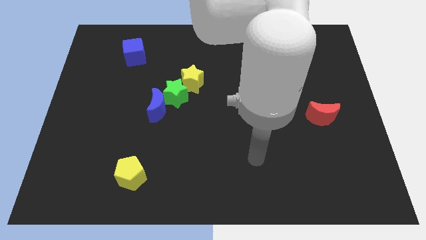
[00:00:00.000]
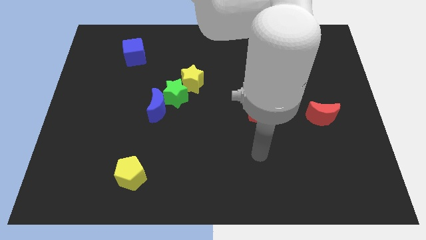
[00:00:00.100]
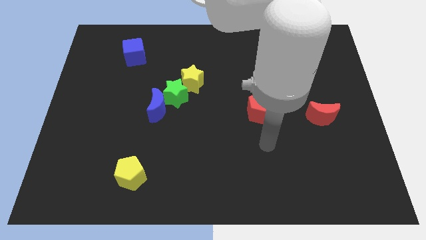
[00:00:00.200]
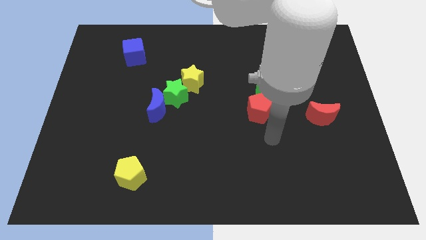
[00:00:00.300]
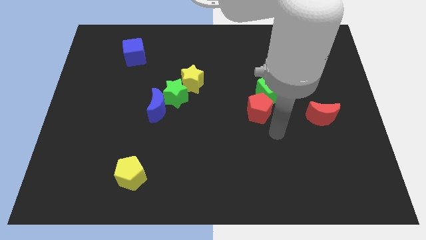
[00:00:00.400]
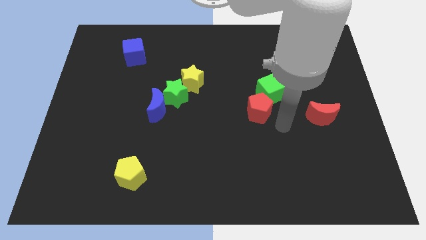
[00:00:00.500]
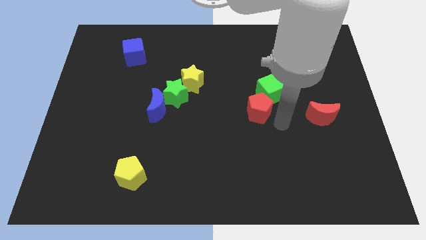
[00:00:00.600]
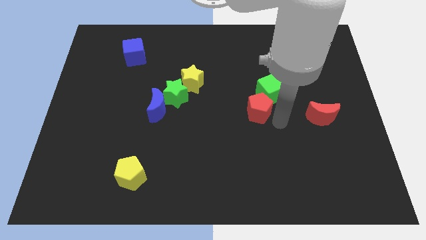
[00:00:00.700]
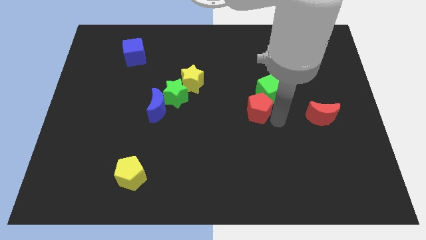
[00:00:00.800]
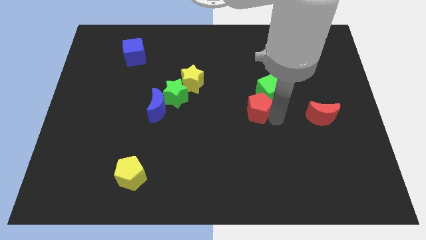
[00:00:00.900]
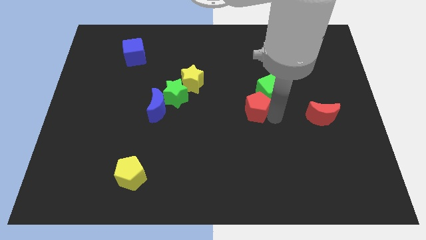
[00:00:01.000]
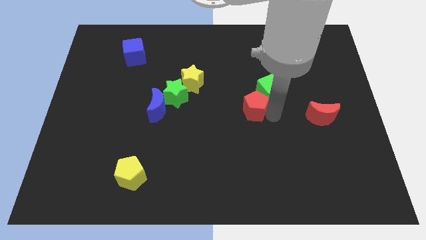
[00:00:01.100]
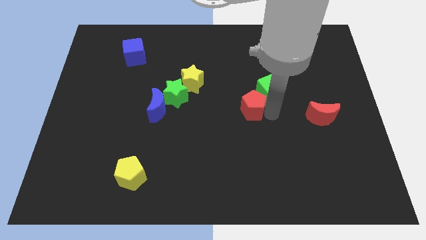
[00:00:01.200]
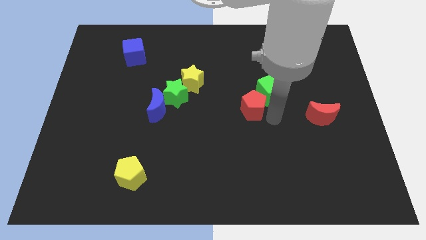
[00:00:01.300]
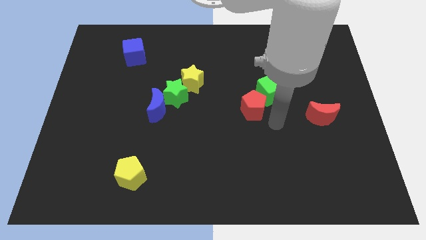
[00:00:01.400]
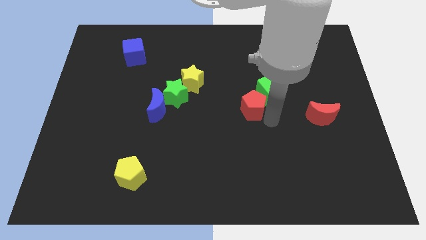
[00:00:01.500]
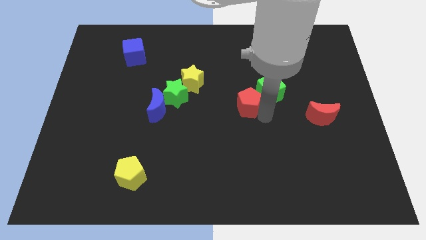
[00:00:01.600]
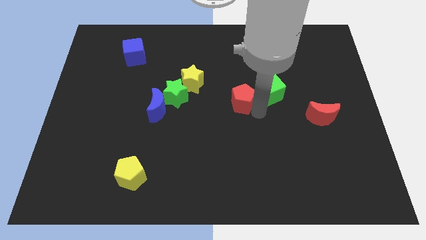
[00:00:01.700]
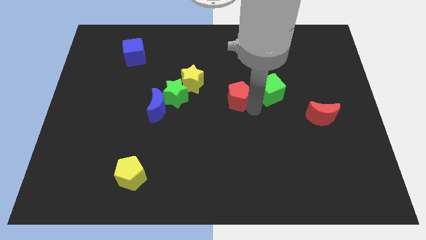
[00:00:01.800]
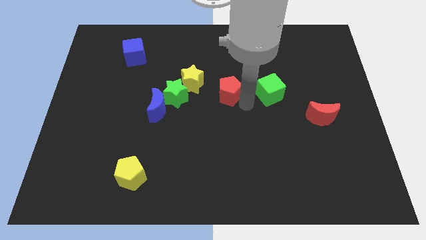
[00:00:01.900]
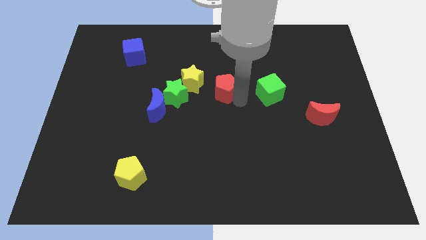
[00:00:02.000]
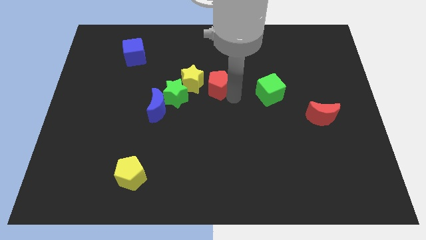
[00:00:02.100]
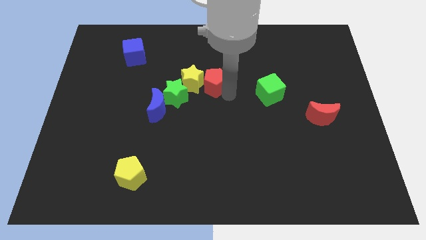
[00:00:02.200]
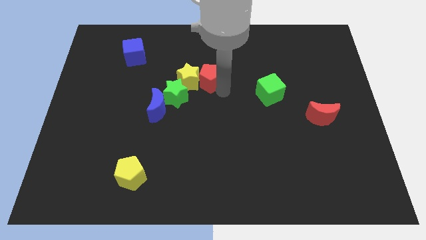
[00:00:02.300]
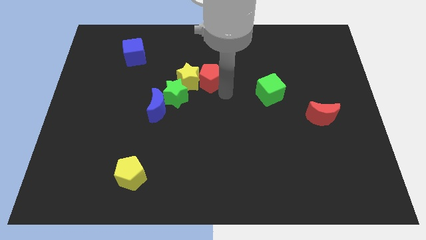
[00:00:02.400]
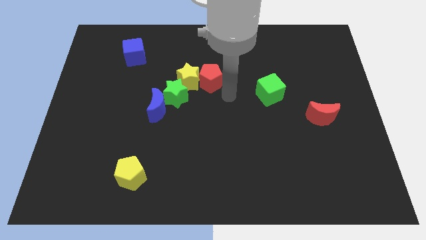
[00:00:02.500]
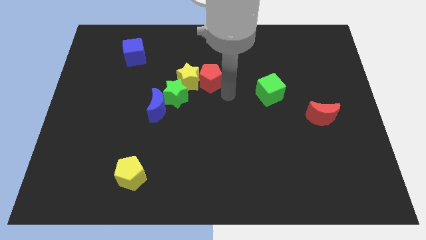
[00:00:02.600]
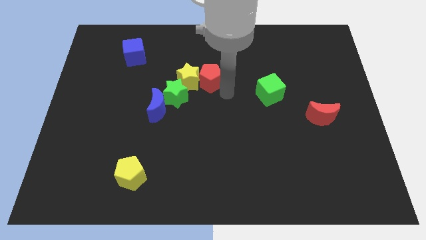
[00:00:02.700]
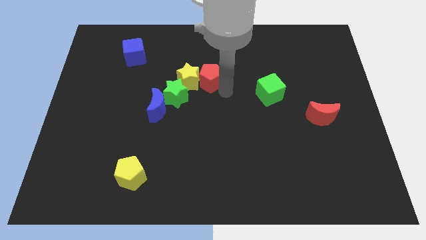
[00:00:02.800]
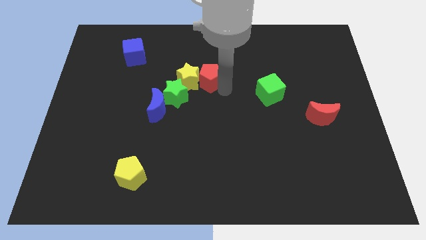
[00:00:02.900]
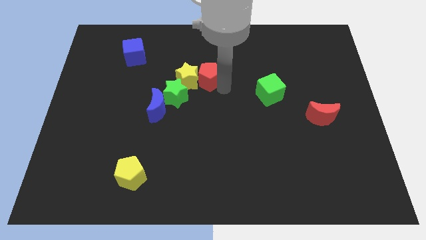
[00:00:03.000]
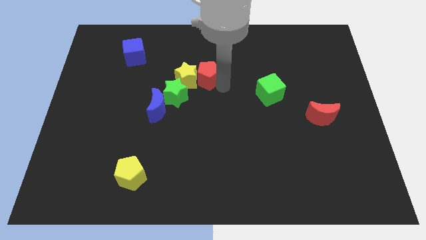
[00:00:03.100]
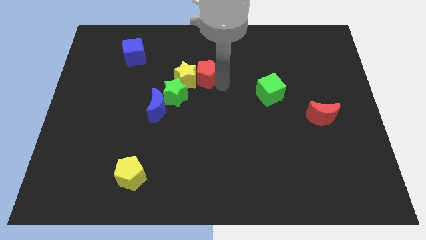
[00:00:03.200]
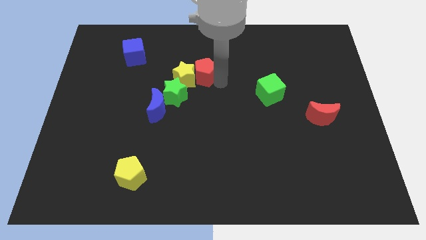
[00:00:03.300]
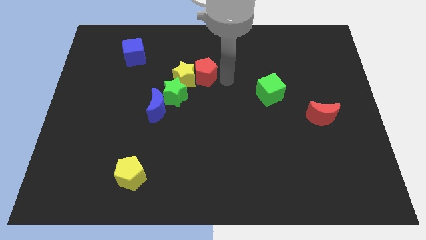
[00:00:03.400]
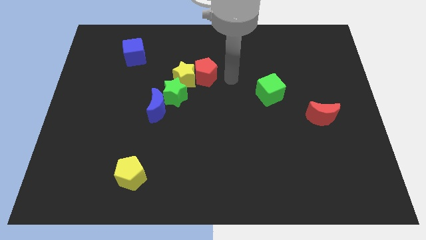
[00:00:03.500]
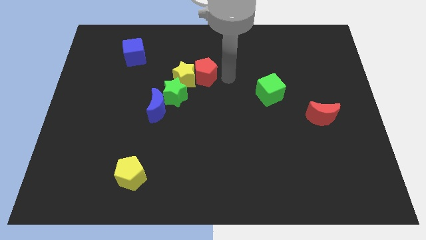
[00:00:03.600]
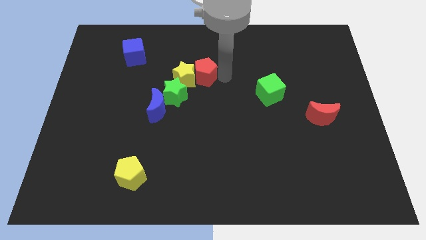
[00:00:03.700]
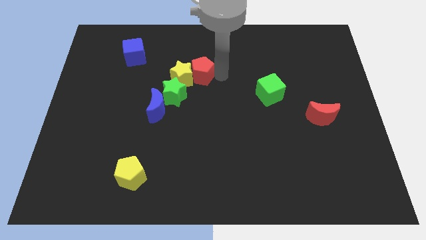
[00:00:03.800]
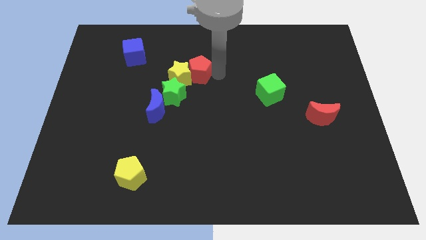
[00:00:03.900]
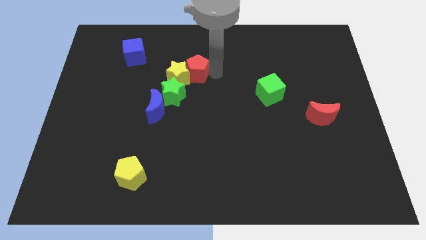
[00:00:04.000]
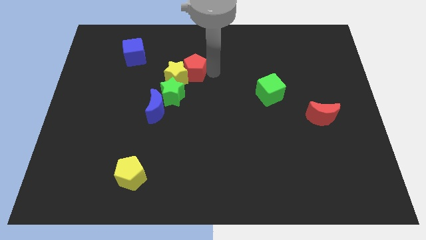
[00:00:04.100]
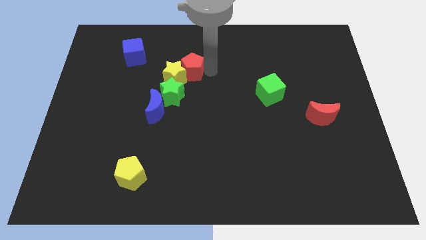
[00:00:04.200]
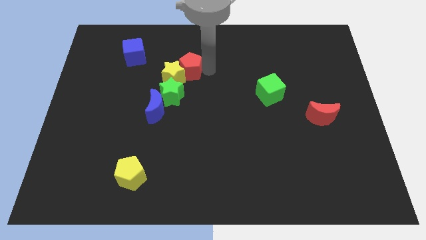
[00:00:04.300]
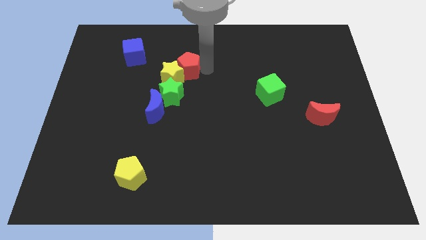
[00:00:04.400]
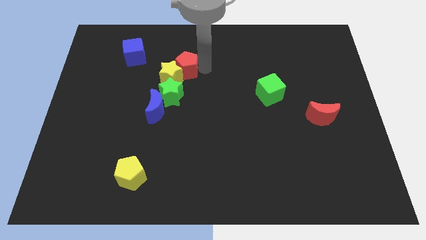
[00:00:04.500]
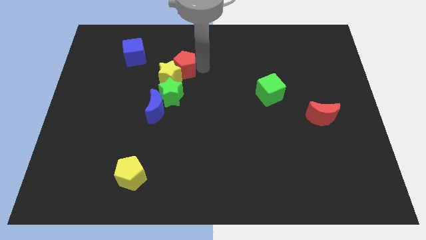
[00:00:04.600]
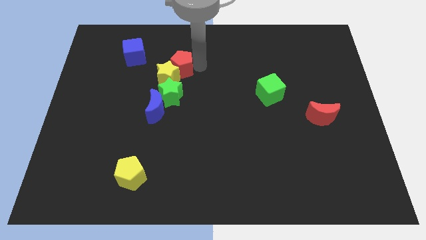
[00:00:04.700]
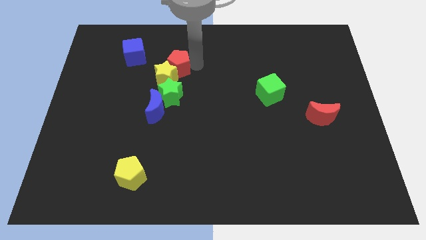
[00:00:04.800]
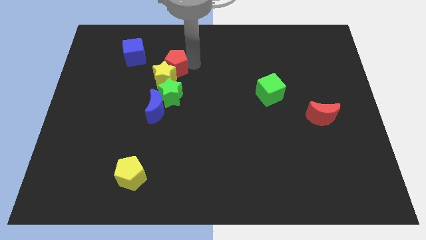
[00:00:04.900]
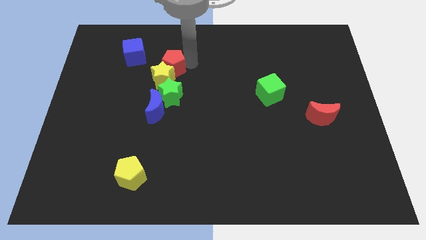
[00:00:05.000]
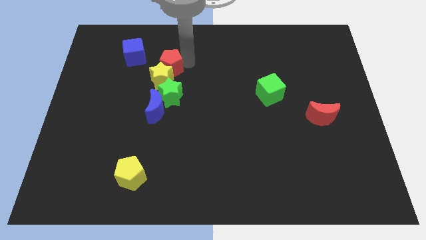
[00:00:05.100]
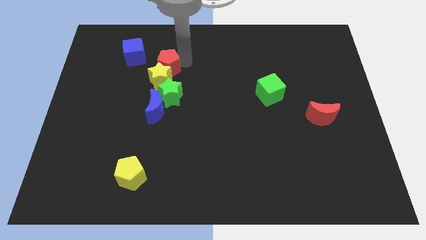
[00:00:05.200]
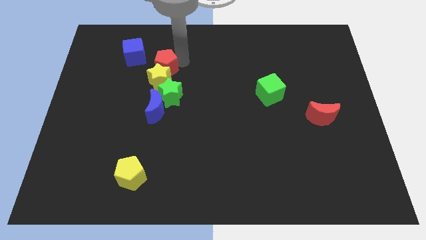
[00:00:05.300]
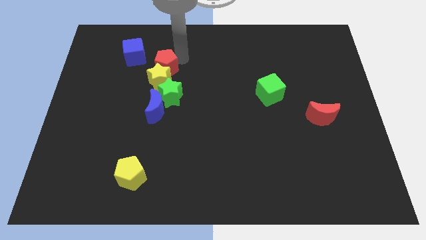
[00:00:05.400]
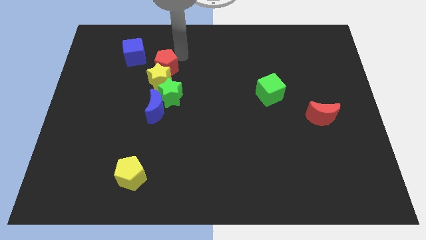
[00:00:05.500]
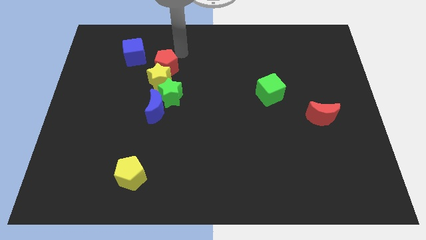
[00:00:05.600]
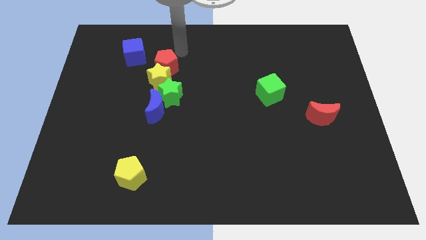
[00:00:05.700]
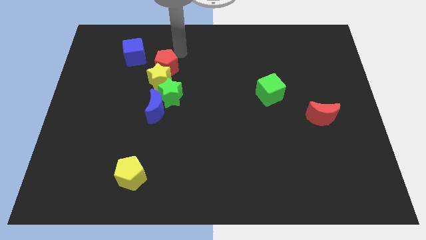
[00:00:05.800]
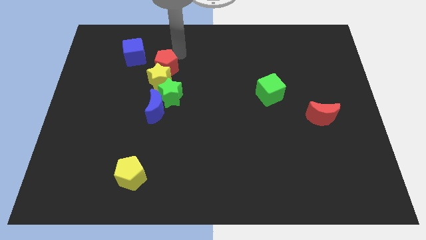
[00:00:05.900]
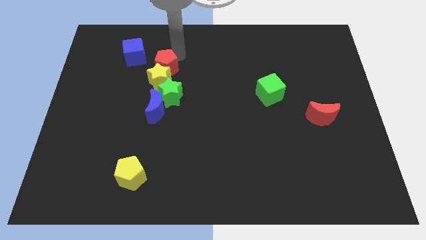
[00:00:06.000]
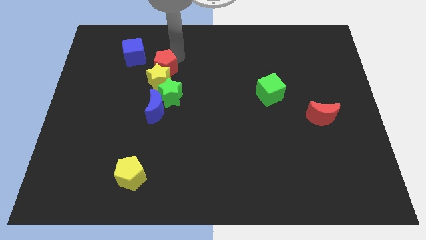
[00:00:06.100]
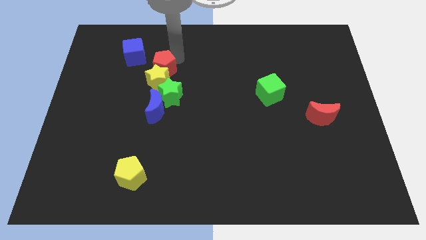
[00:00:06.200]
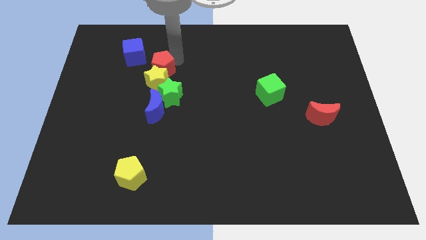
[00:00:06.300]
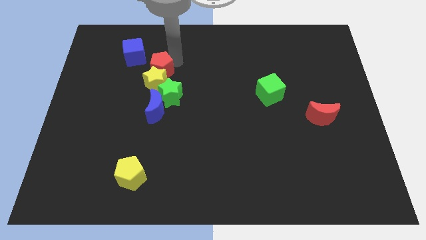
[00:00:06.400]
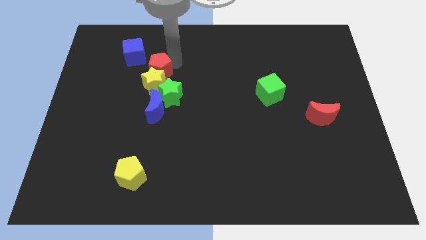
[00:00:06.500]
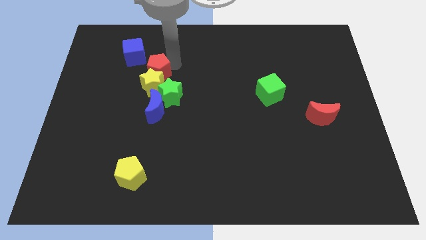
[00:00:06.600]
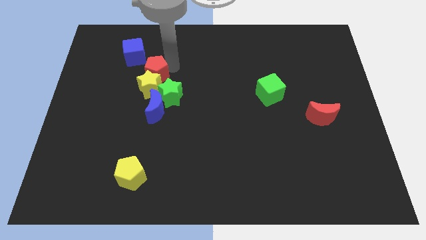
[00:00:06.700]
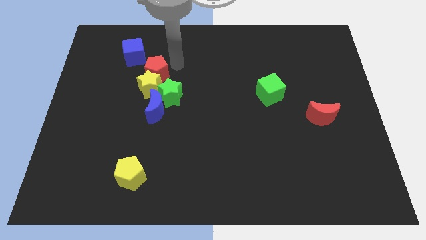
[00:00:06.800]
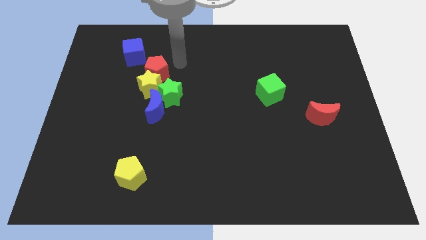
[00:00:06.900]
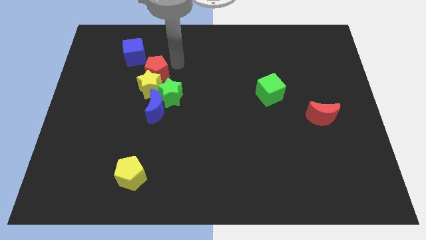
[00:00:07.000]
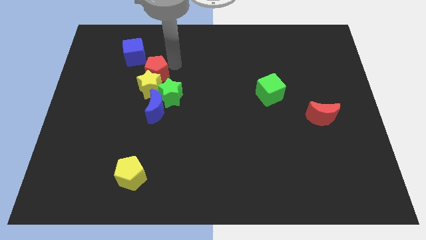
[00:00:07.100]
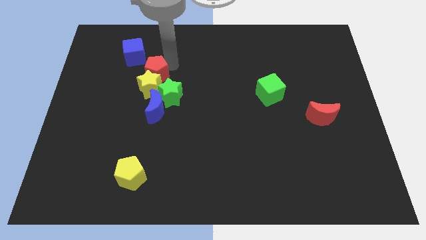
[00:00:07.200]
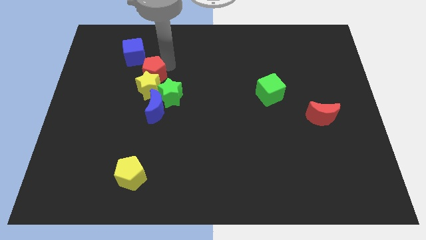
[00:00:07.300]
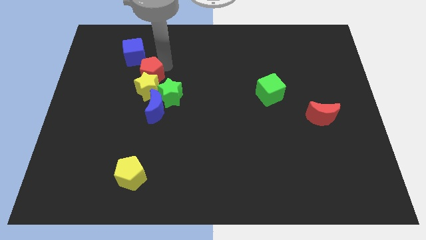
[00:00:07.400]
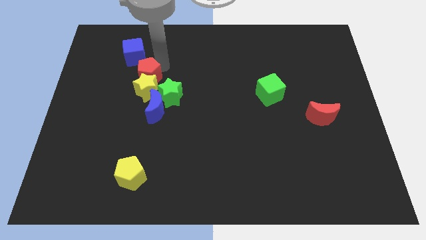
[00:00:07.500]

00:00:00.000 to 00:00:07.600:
push the red pentagon to the bottom side of the blue cube
